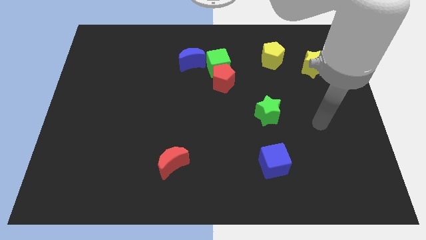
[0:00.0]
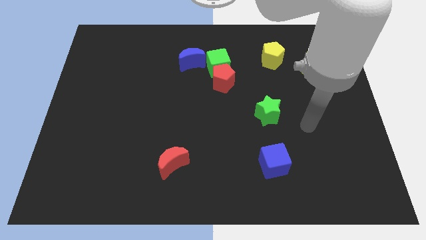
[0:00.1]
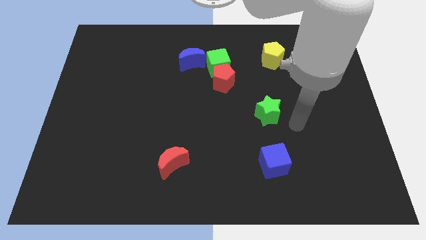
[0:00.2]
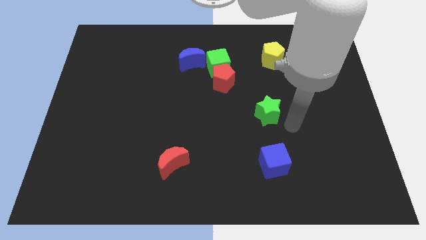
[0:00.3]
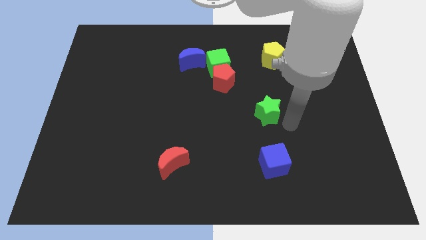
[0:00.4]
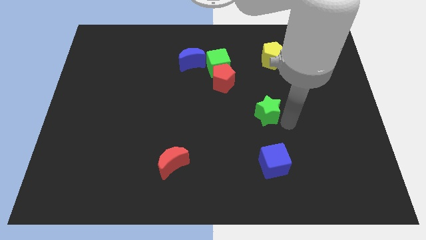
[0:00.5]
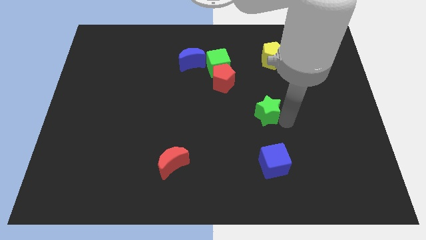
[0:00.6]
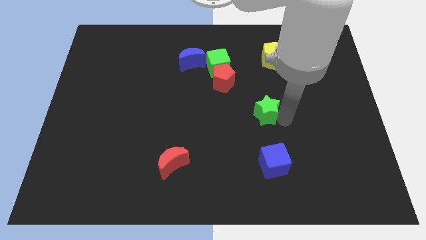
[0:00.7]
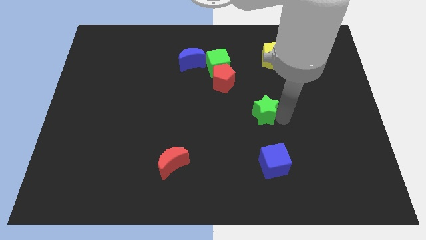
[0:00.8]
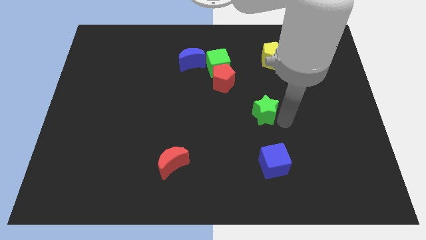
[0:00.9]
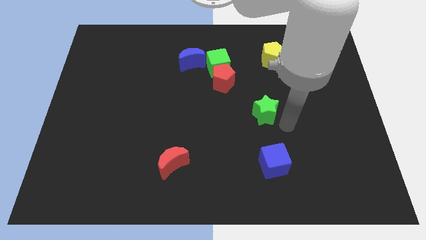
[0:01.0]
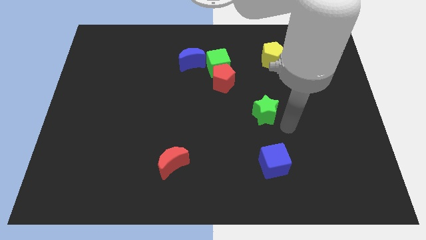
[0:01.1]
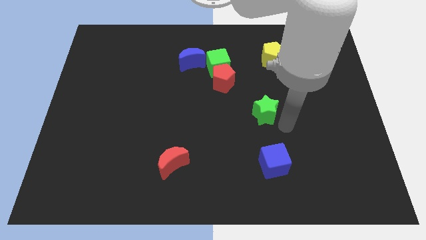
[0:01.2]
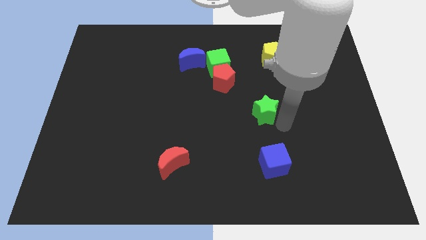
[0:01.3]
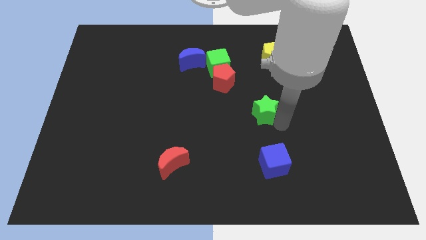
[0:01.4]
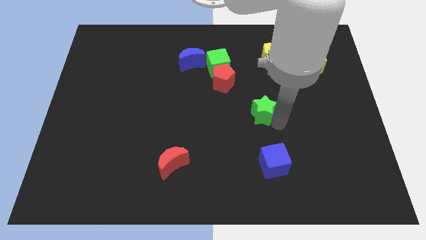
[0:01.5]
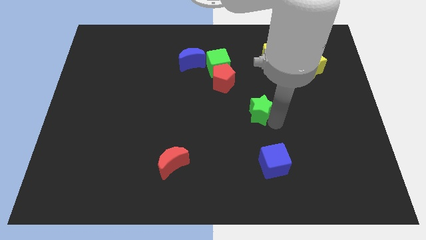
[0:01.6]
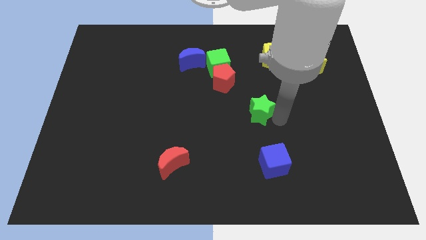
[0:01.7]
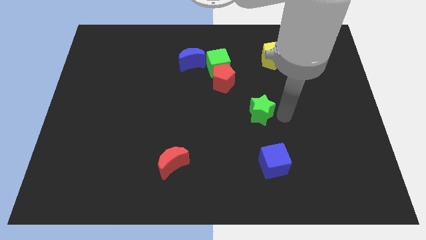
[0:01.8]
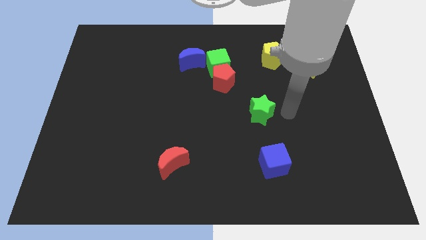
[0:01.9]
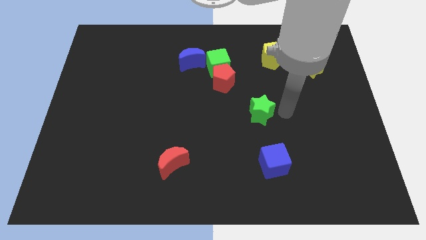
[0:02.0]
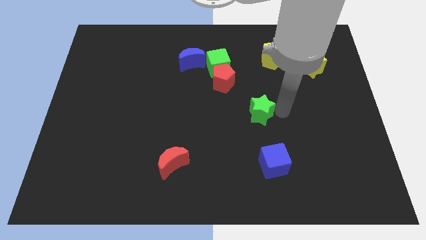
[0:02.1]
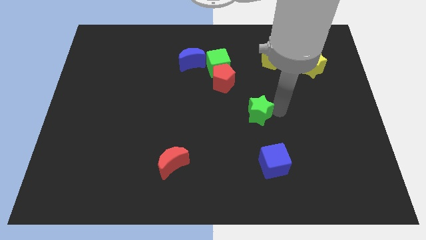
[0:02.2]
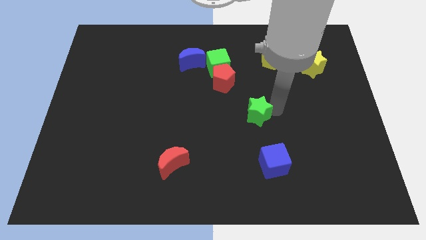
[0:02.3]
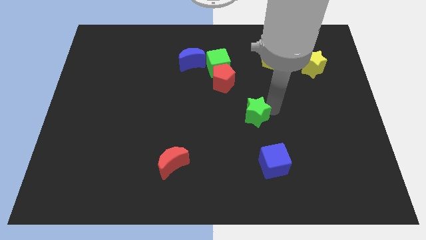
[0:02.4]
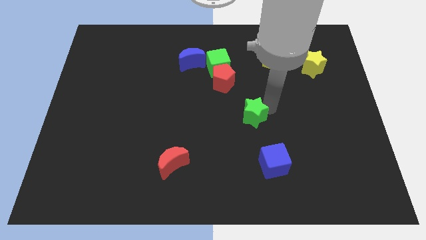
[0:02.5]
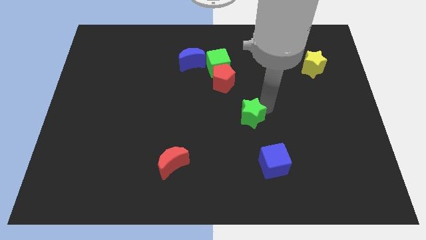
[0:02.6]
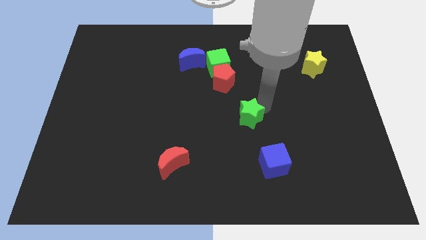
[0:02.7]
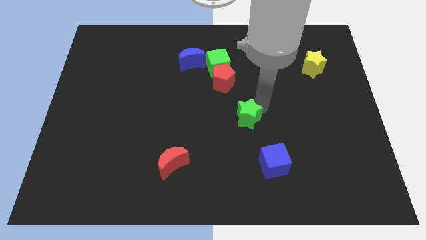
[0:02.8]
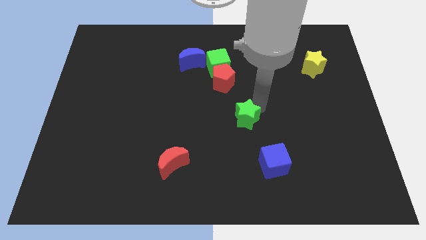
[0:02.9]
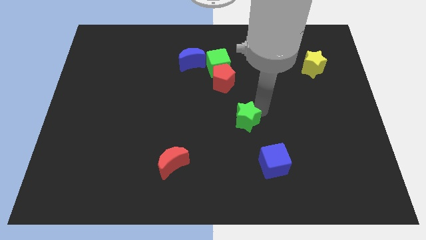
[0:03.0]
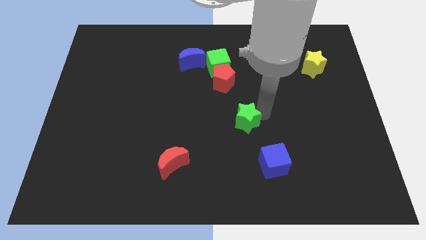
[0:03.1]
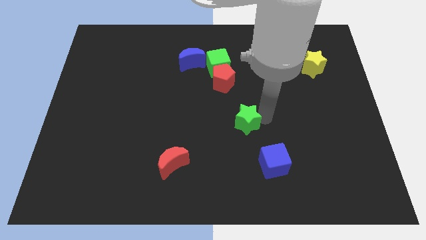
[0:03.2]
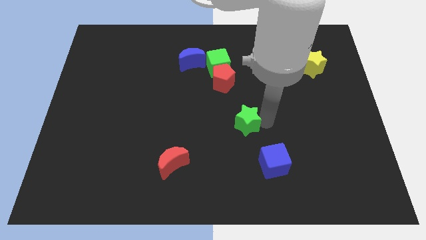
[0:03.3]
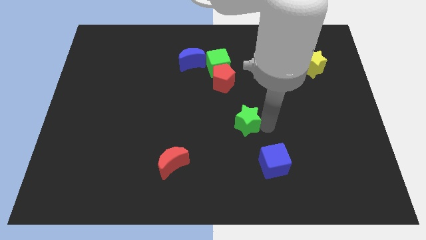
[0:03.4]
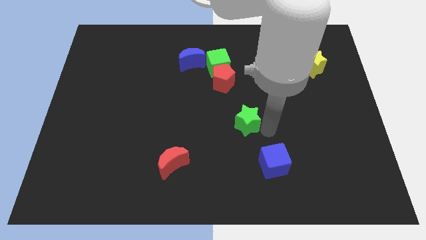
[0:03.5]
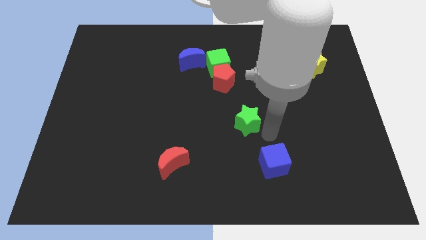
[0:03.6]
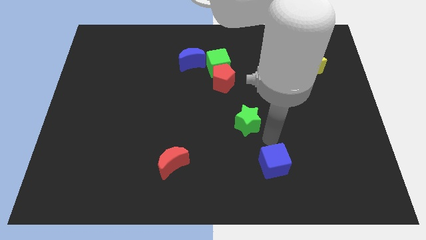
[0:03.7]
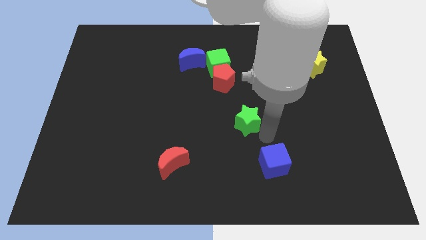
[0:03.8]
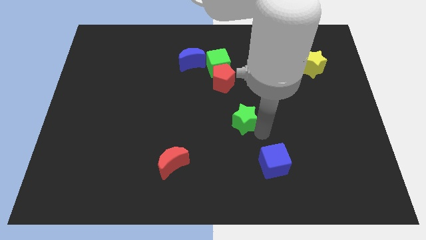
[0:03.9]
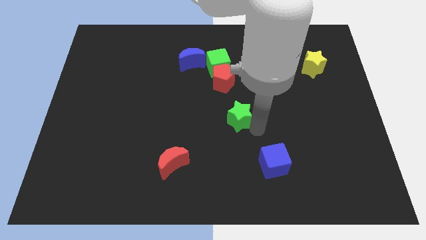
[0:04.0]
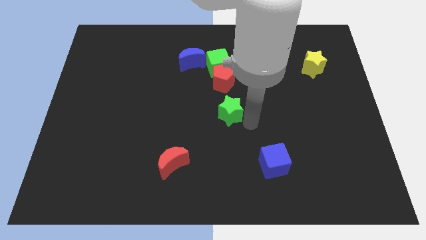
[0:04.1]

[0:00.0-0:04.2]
move the green star left a bit

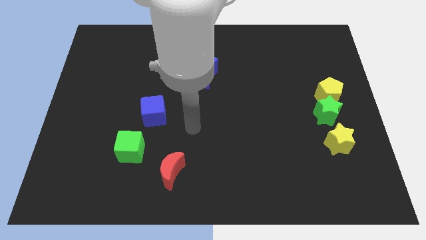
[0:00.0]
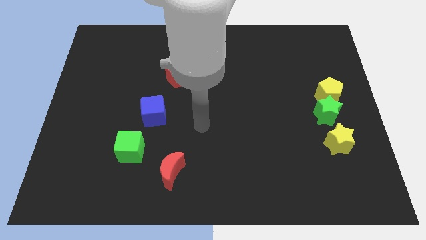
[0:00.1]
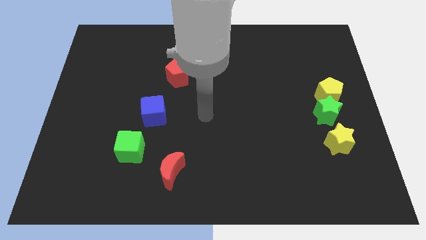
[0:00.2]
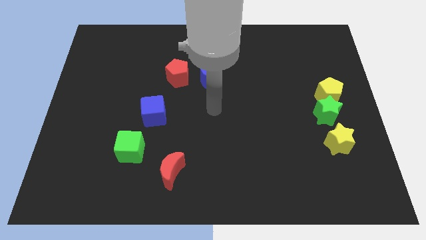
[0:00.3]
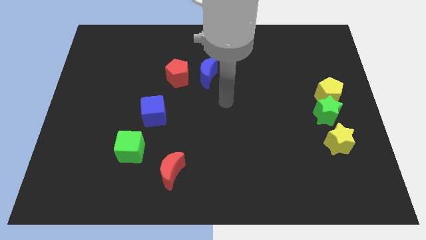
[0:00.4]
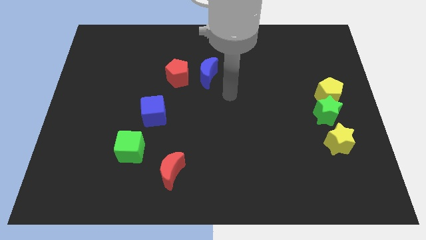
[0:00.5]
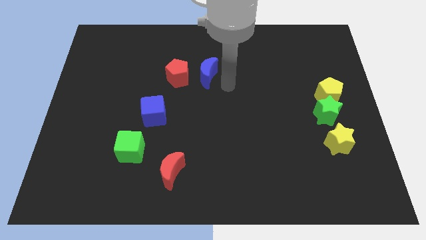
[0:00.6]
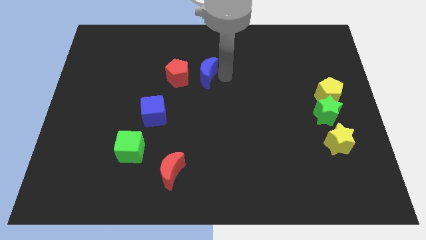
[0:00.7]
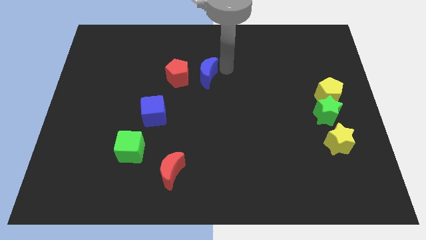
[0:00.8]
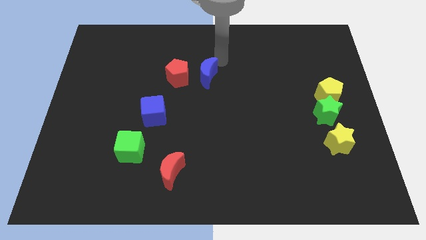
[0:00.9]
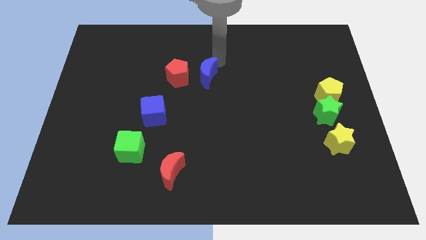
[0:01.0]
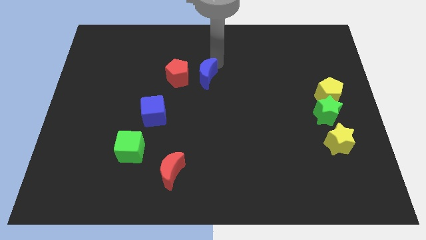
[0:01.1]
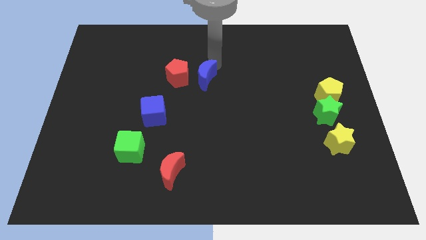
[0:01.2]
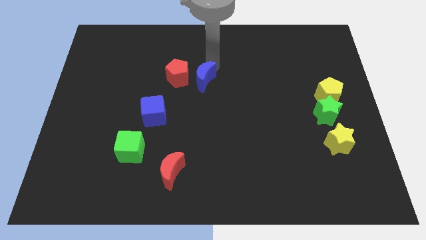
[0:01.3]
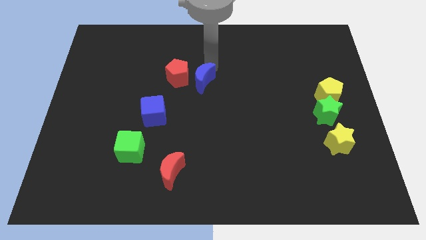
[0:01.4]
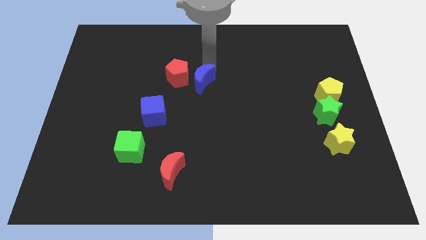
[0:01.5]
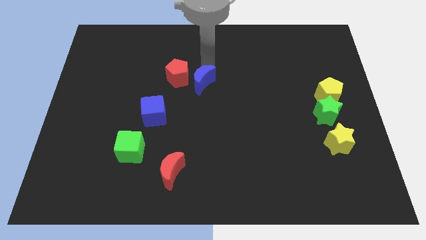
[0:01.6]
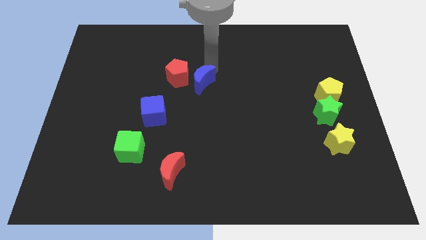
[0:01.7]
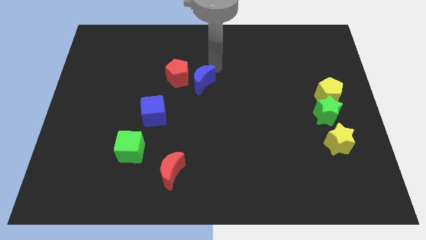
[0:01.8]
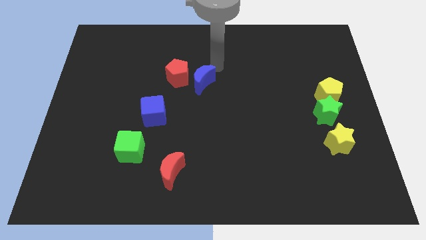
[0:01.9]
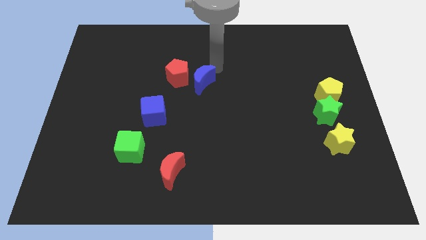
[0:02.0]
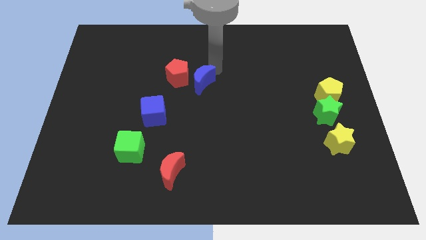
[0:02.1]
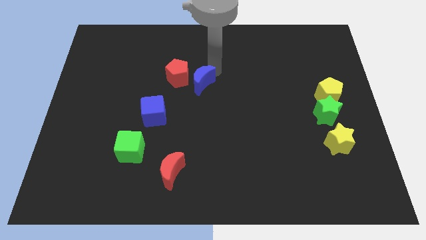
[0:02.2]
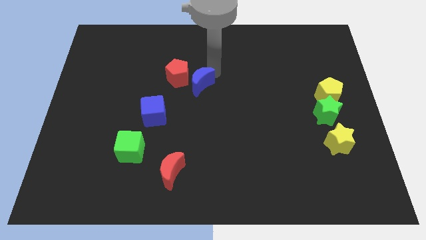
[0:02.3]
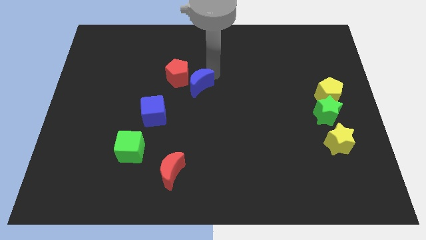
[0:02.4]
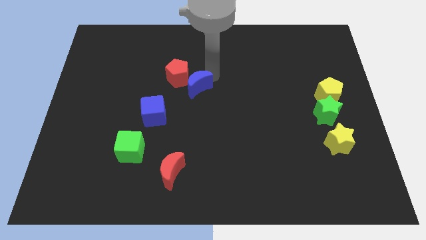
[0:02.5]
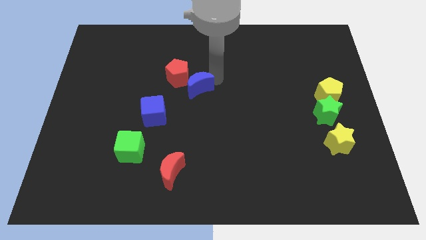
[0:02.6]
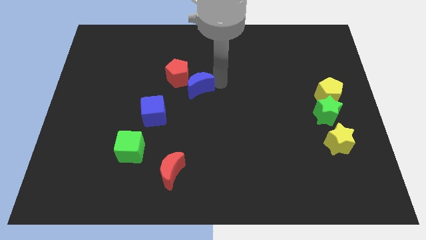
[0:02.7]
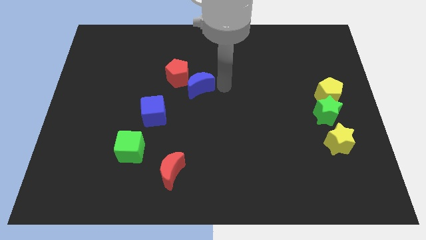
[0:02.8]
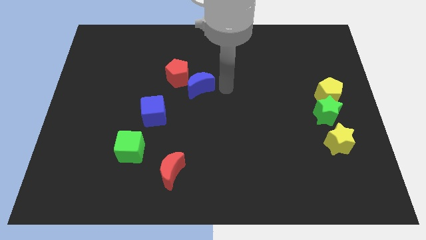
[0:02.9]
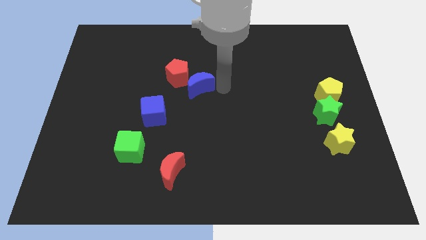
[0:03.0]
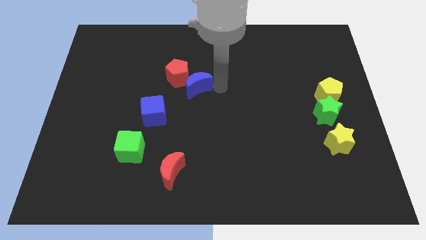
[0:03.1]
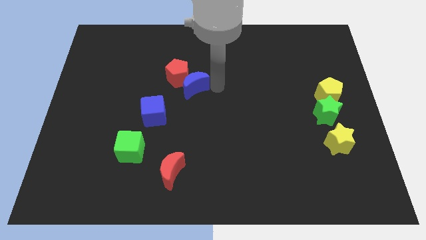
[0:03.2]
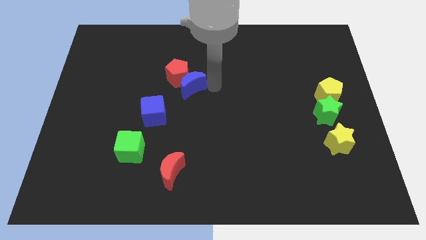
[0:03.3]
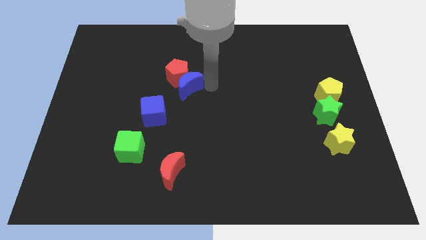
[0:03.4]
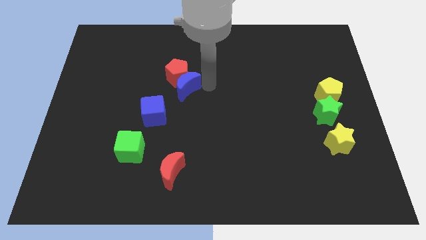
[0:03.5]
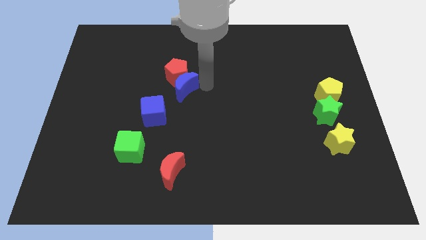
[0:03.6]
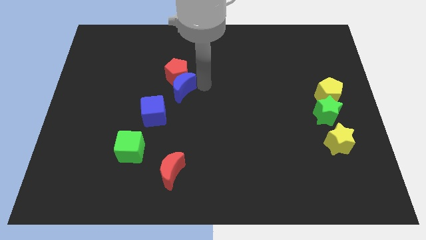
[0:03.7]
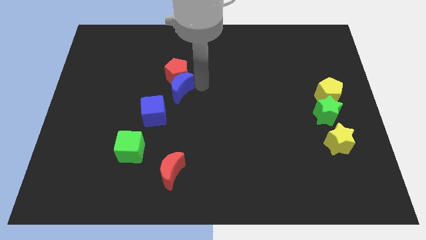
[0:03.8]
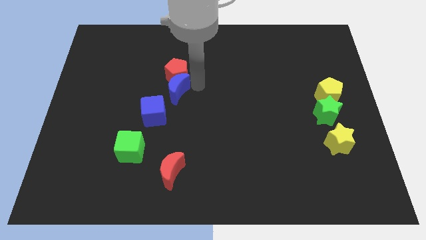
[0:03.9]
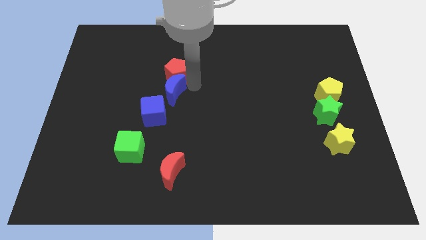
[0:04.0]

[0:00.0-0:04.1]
slightly move the blue moon left
